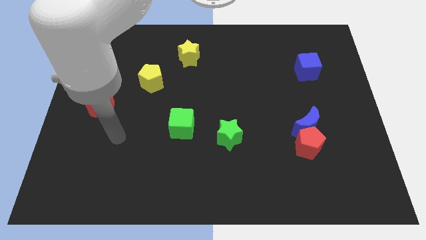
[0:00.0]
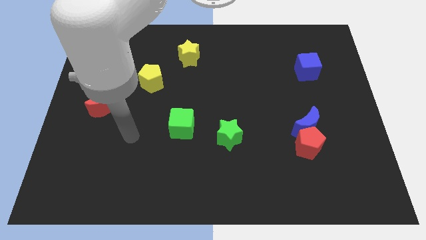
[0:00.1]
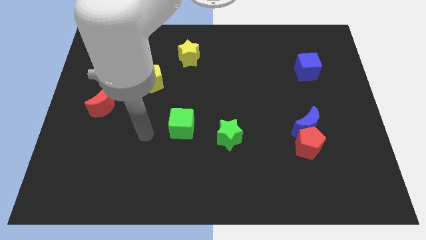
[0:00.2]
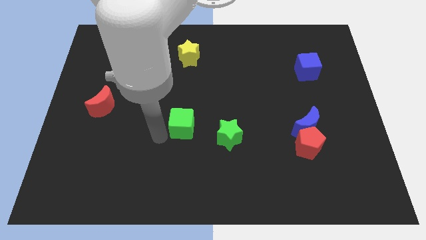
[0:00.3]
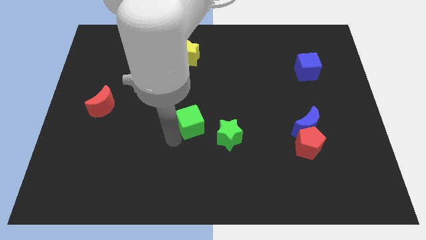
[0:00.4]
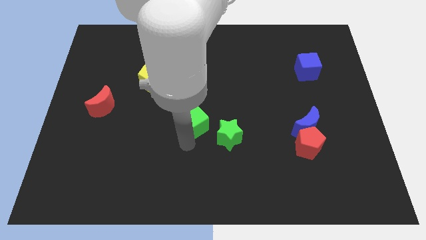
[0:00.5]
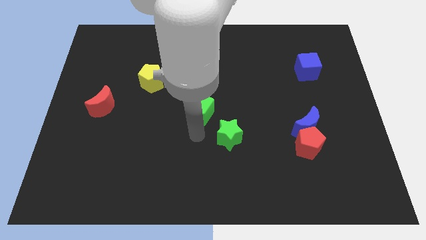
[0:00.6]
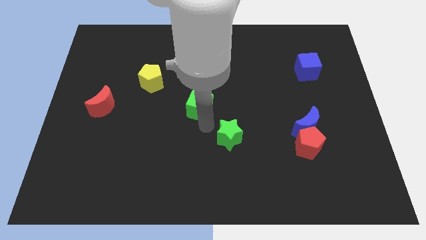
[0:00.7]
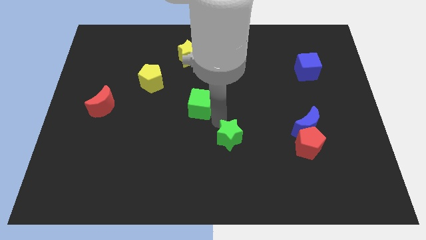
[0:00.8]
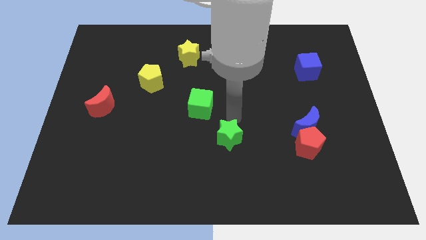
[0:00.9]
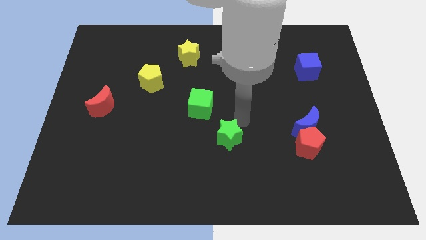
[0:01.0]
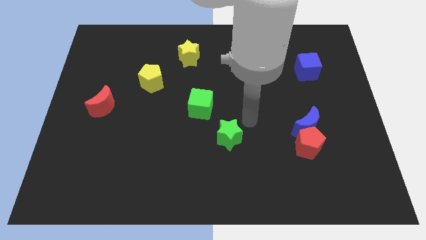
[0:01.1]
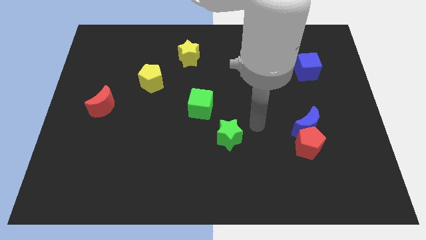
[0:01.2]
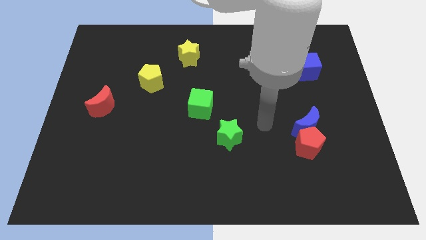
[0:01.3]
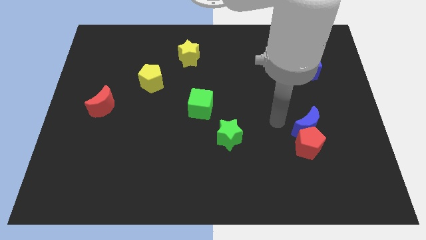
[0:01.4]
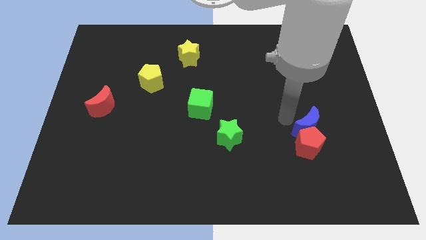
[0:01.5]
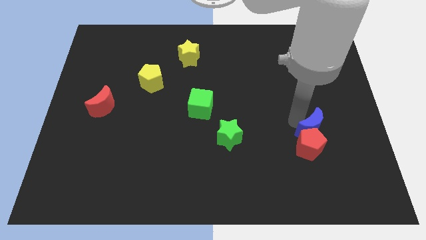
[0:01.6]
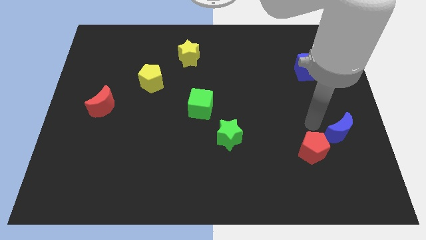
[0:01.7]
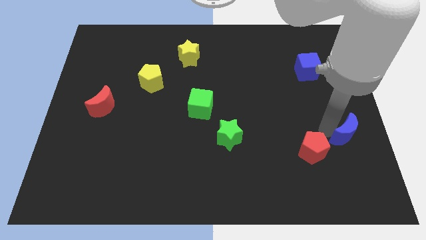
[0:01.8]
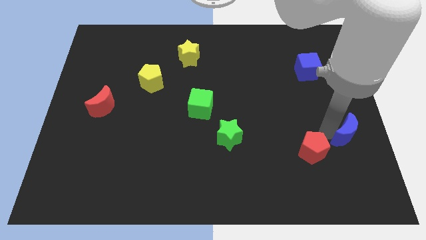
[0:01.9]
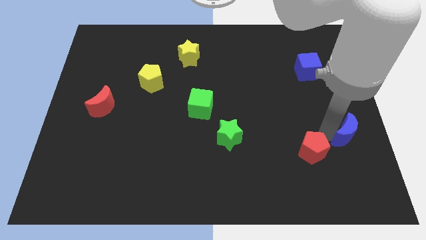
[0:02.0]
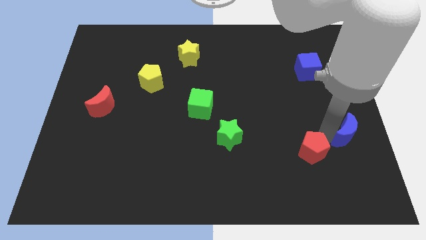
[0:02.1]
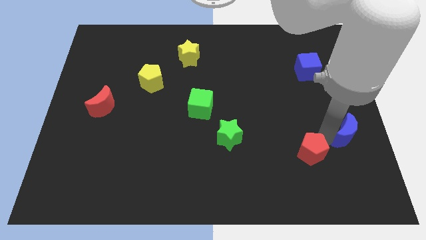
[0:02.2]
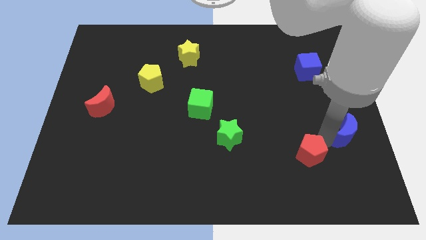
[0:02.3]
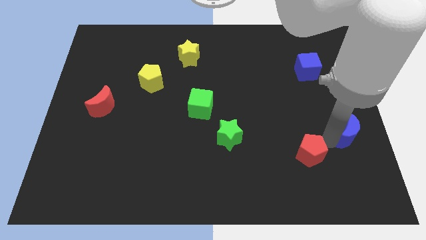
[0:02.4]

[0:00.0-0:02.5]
pull the red pentagon apart from the blue moon

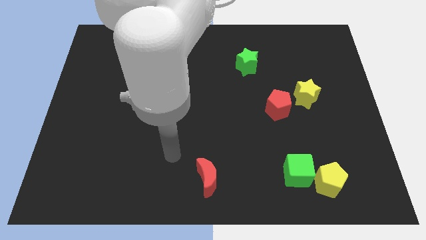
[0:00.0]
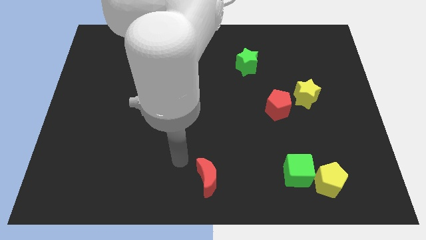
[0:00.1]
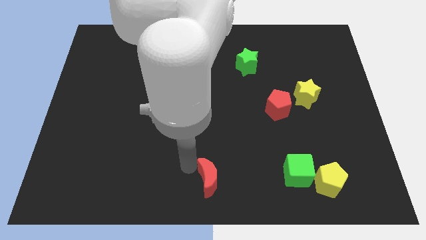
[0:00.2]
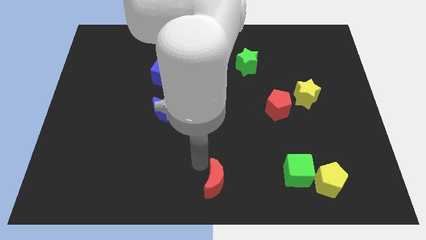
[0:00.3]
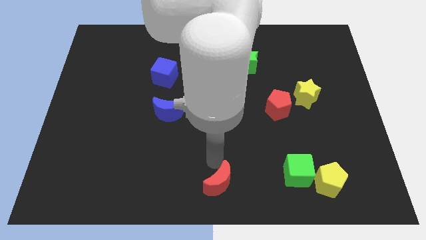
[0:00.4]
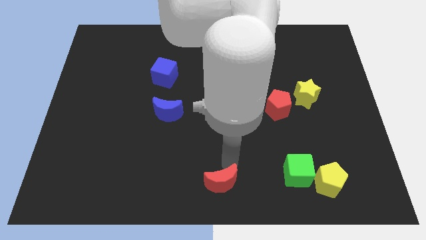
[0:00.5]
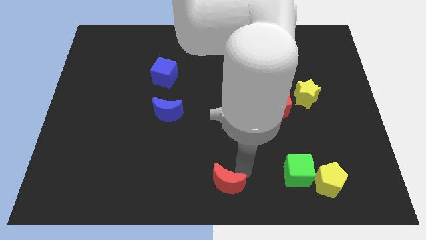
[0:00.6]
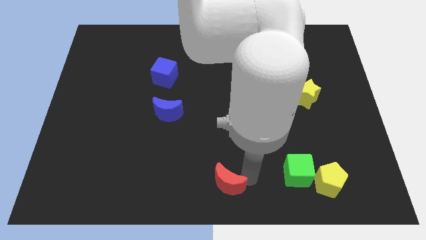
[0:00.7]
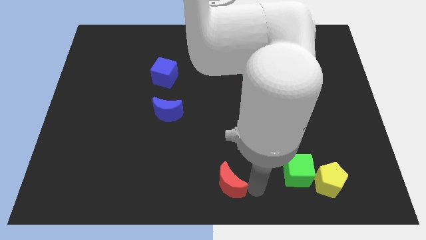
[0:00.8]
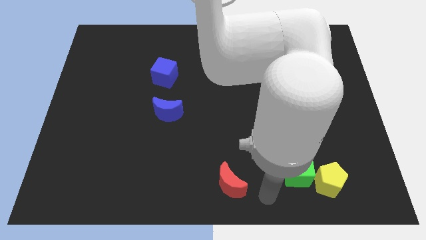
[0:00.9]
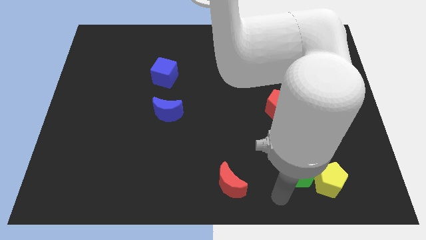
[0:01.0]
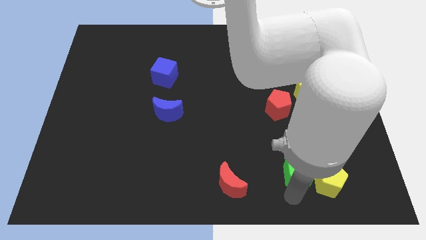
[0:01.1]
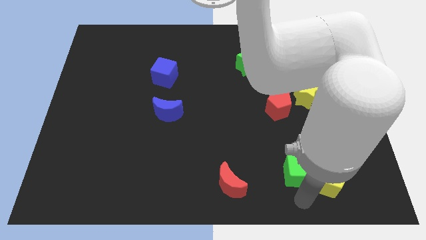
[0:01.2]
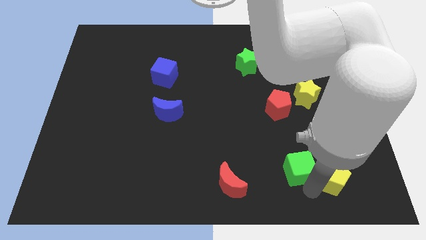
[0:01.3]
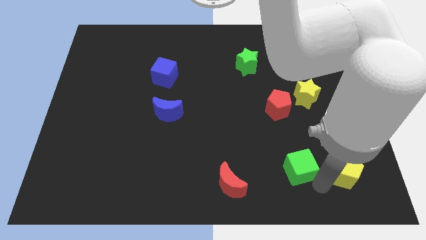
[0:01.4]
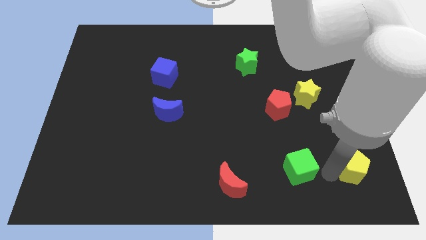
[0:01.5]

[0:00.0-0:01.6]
separate the green cube from the yellow pentagon

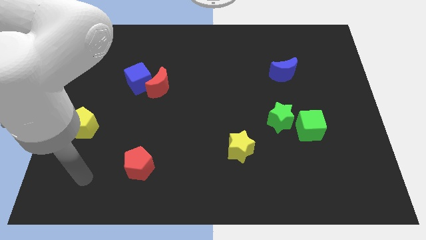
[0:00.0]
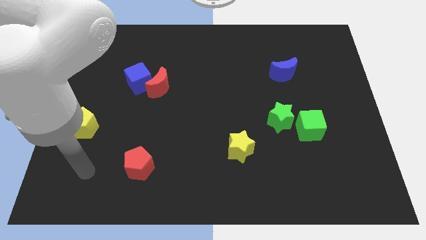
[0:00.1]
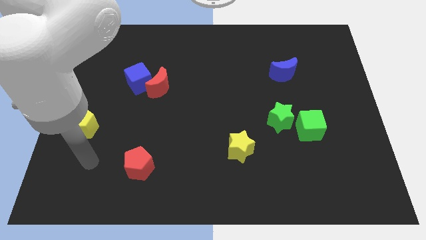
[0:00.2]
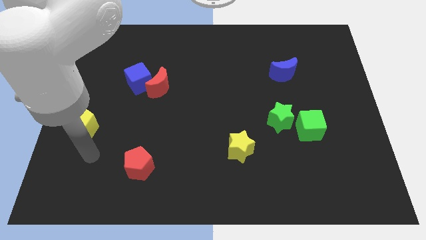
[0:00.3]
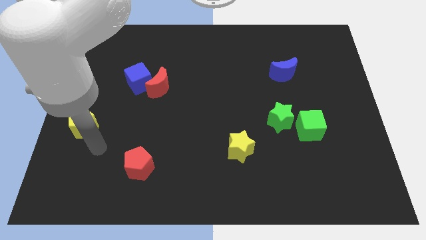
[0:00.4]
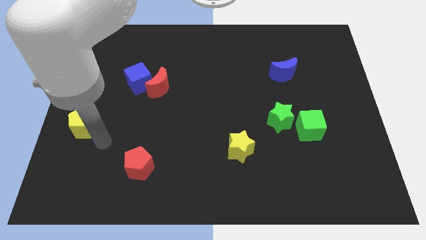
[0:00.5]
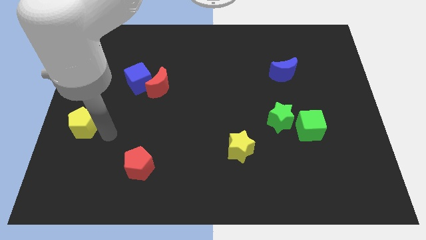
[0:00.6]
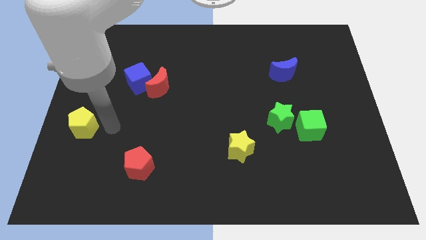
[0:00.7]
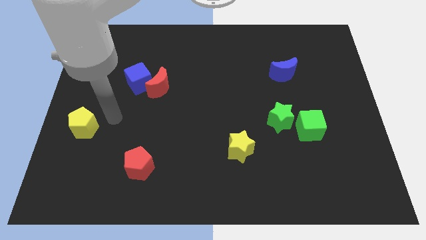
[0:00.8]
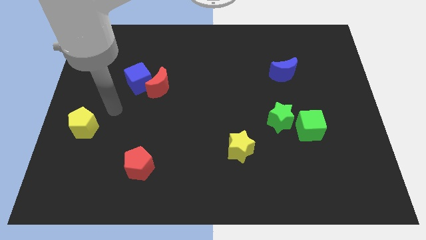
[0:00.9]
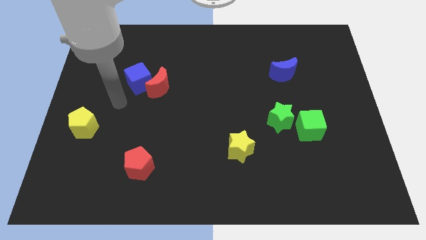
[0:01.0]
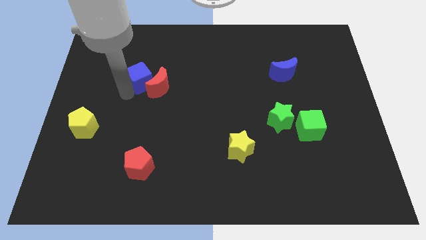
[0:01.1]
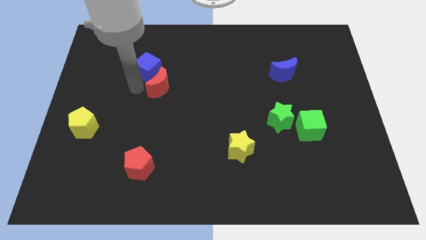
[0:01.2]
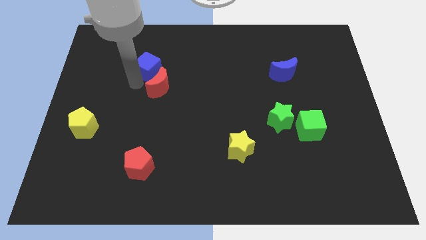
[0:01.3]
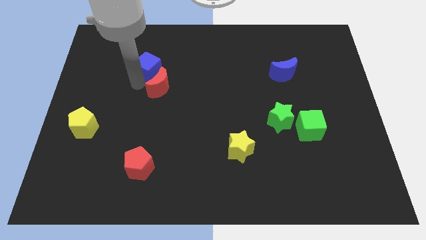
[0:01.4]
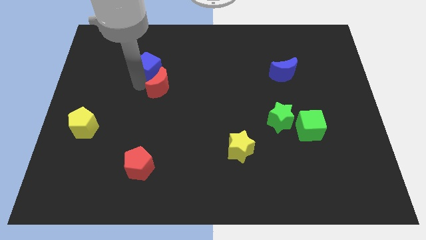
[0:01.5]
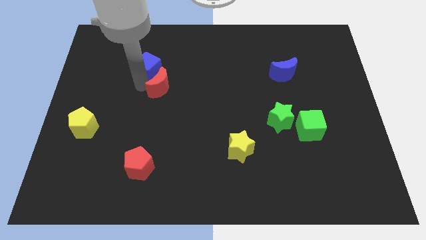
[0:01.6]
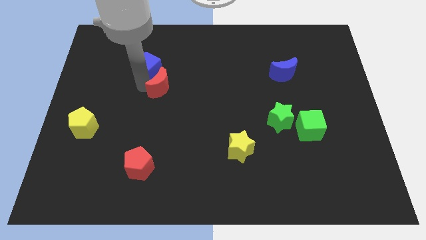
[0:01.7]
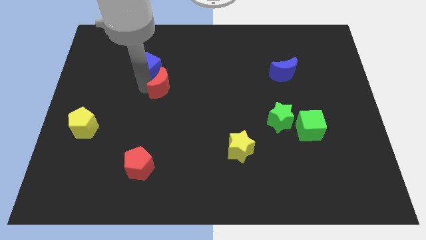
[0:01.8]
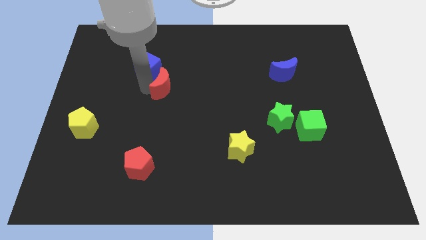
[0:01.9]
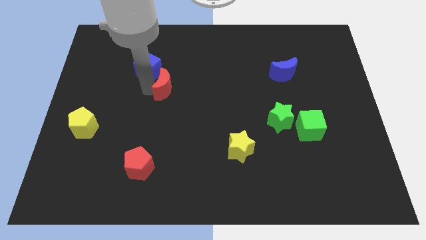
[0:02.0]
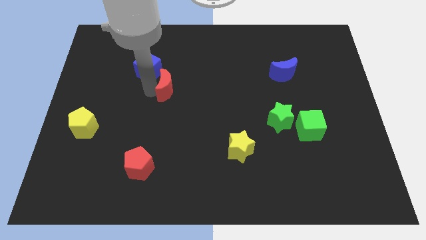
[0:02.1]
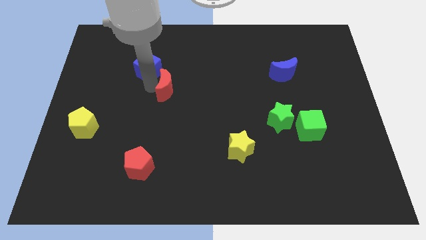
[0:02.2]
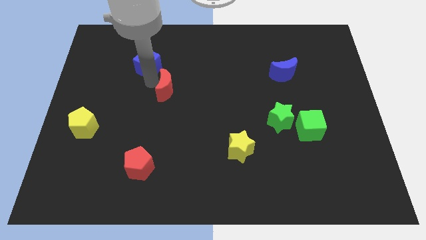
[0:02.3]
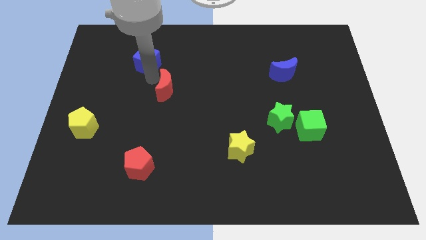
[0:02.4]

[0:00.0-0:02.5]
separate the red moon from the blue cube

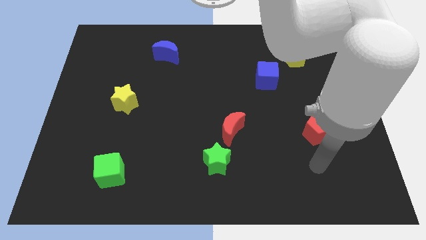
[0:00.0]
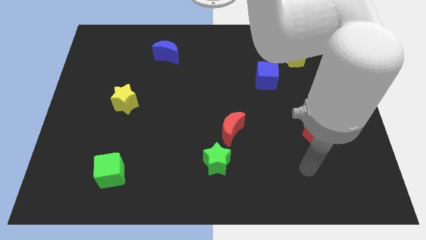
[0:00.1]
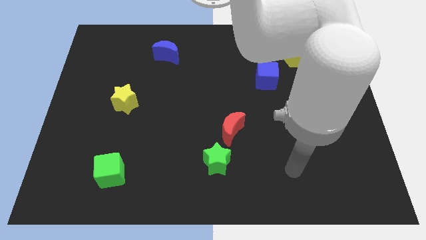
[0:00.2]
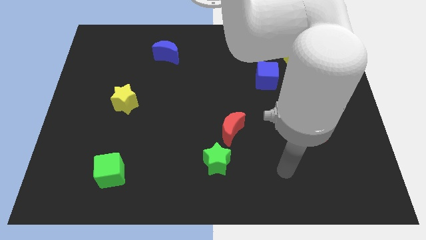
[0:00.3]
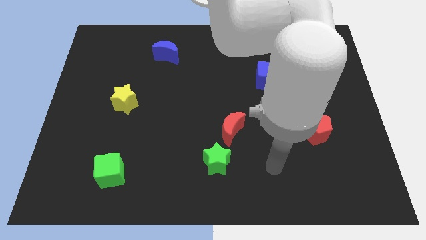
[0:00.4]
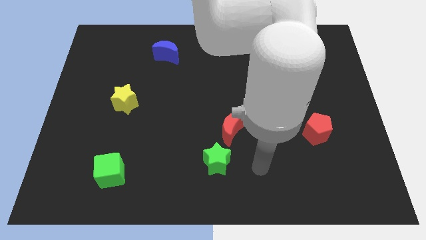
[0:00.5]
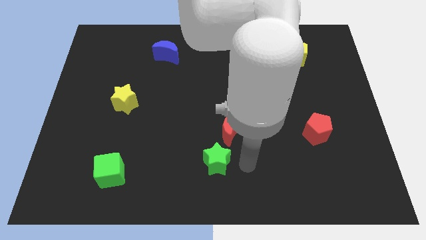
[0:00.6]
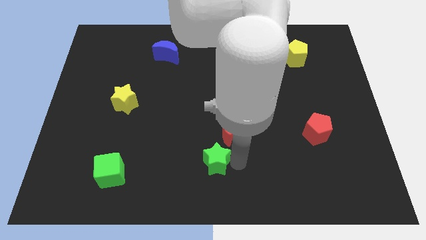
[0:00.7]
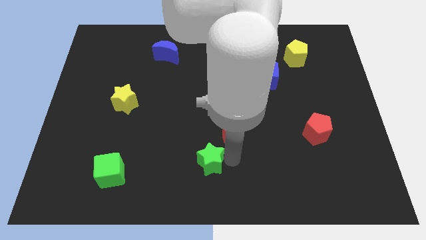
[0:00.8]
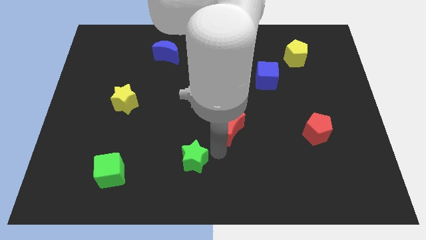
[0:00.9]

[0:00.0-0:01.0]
pull the red moon apart from the green star

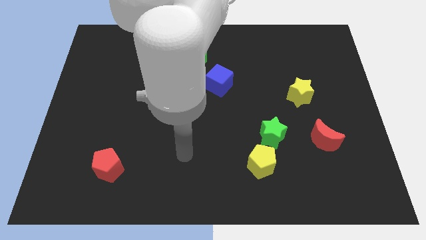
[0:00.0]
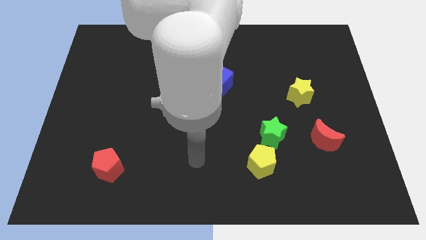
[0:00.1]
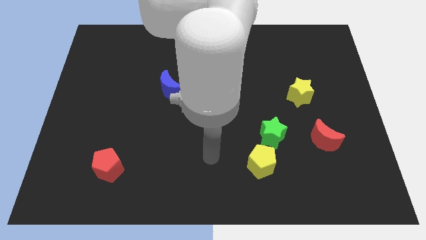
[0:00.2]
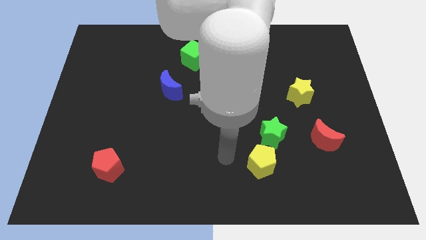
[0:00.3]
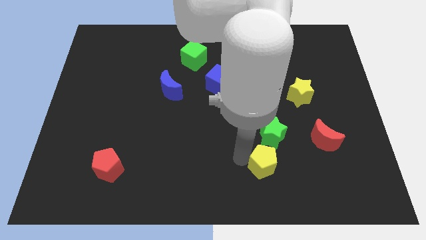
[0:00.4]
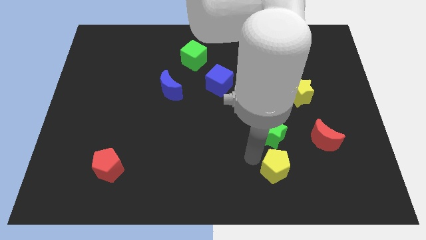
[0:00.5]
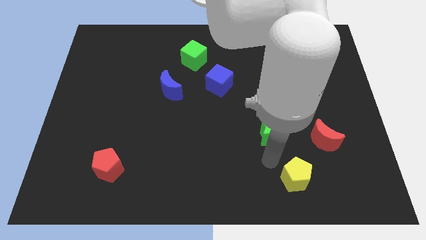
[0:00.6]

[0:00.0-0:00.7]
pull the green star apart from the yellow pentagon

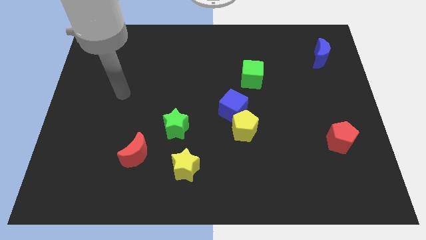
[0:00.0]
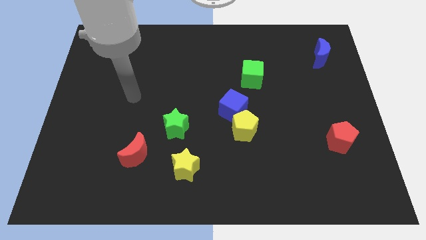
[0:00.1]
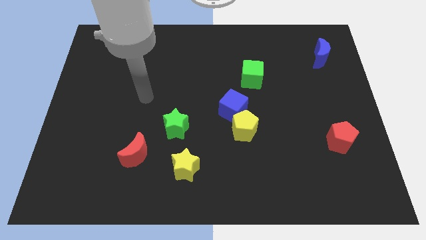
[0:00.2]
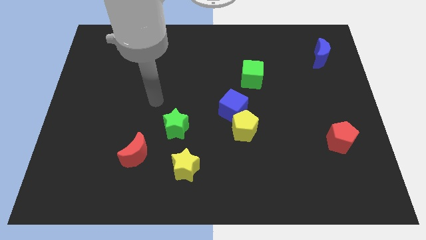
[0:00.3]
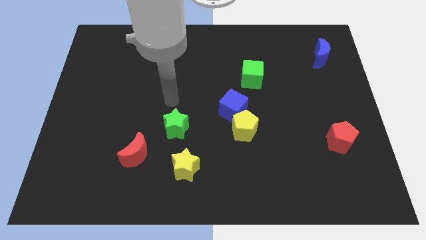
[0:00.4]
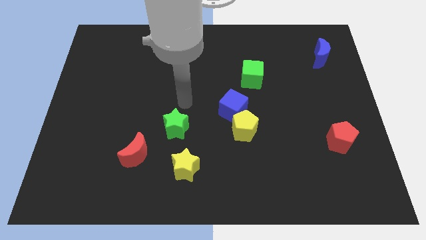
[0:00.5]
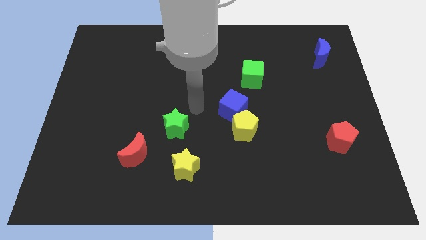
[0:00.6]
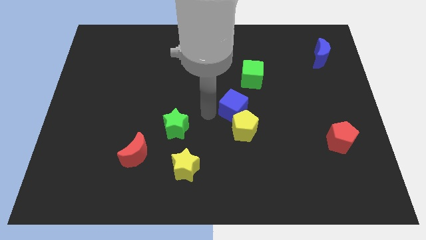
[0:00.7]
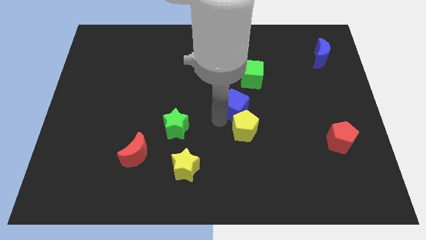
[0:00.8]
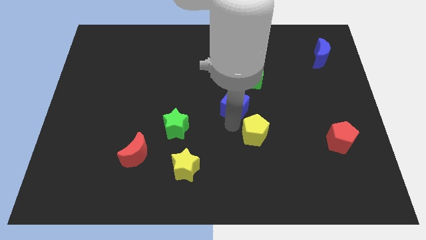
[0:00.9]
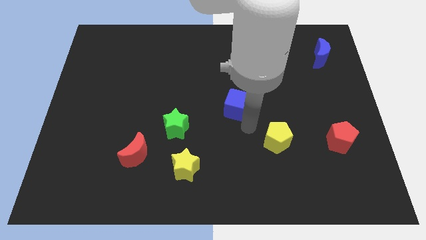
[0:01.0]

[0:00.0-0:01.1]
move the blue cube away from the yellow pentagon
